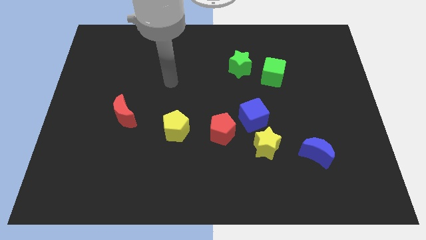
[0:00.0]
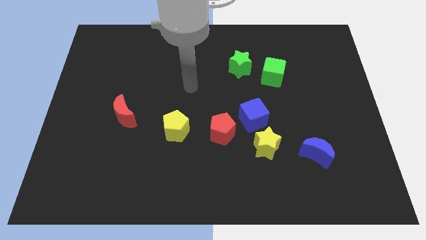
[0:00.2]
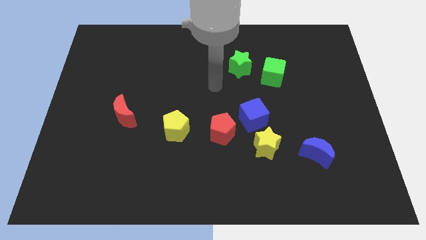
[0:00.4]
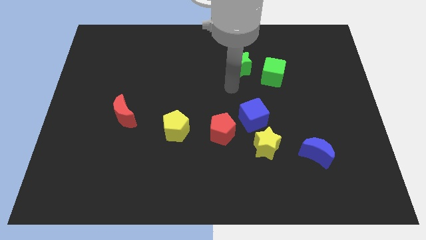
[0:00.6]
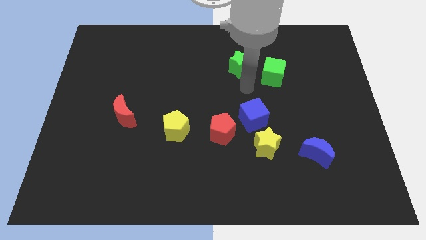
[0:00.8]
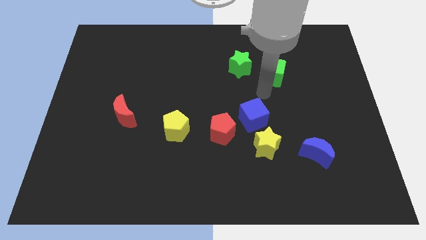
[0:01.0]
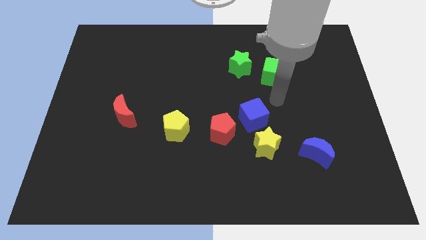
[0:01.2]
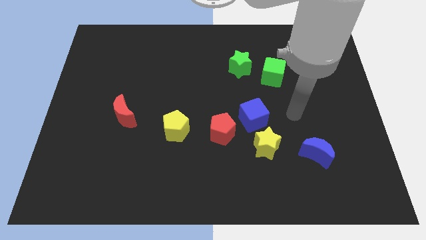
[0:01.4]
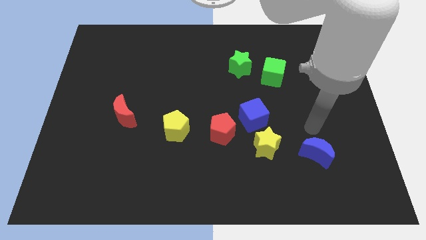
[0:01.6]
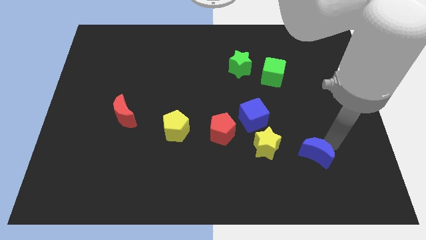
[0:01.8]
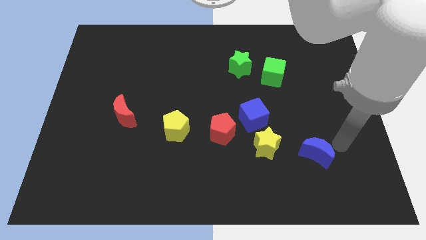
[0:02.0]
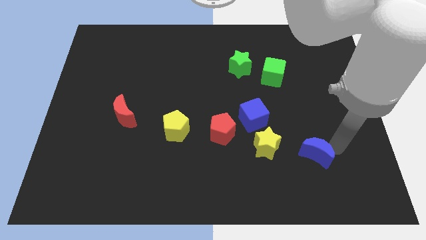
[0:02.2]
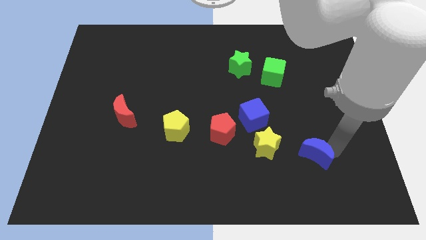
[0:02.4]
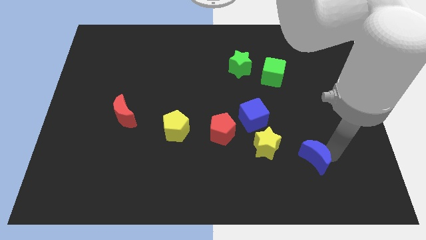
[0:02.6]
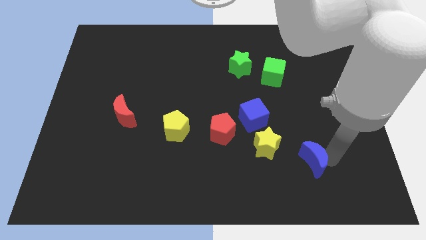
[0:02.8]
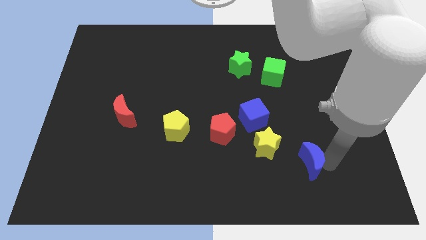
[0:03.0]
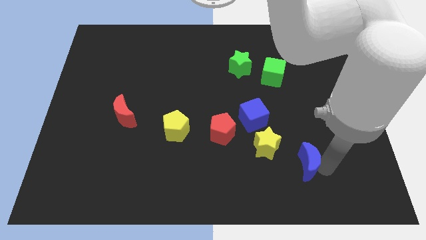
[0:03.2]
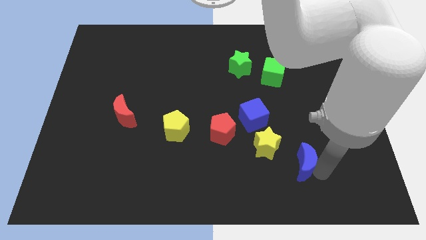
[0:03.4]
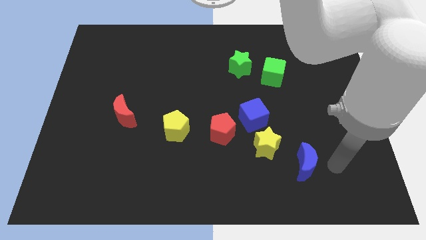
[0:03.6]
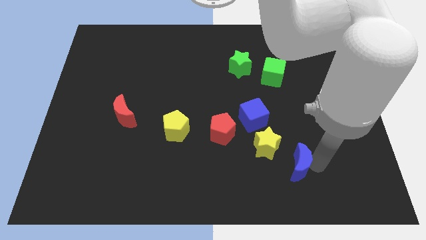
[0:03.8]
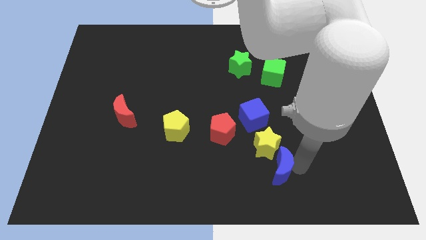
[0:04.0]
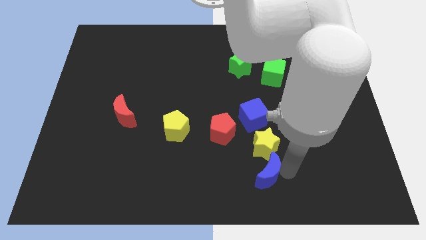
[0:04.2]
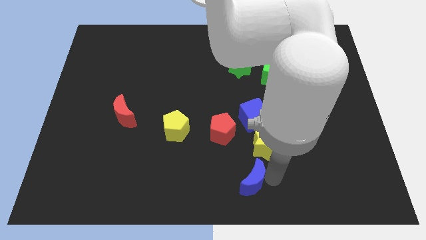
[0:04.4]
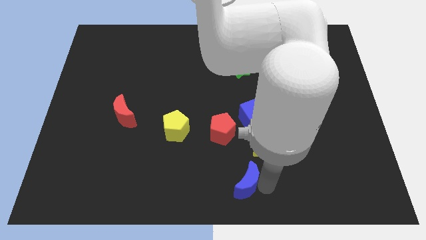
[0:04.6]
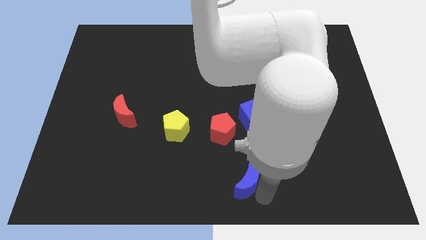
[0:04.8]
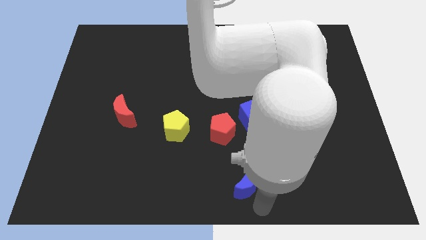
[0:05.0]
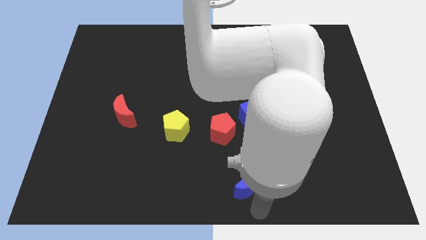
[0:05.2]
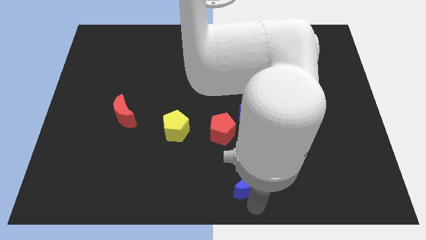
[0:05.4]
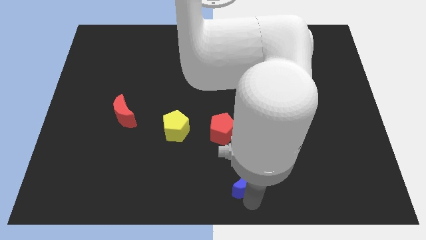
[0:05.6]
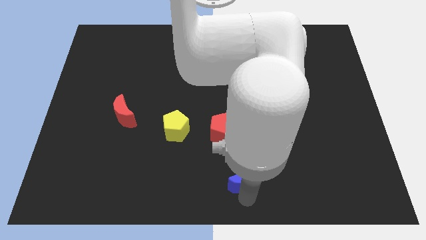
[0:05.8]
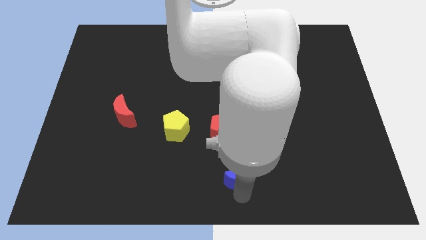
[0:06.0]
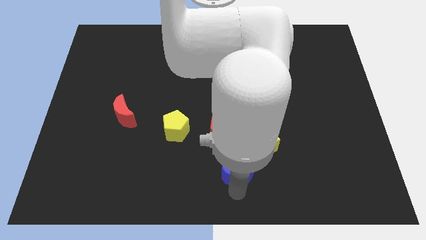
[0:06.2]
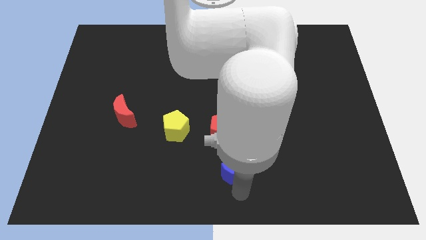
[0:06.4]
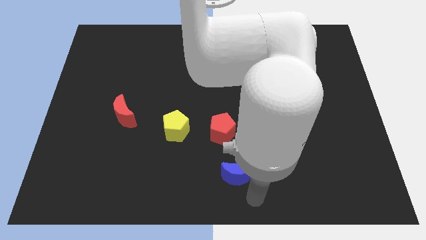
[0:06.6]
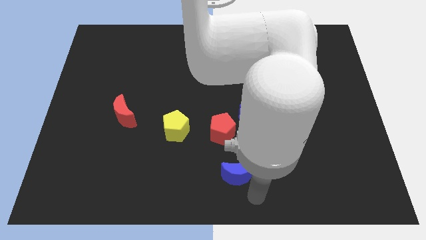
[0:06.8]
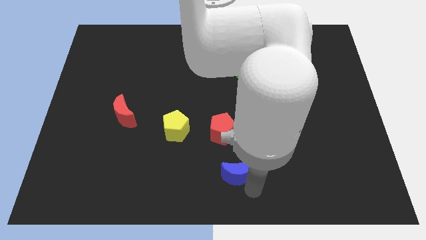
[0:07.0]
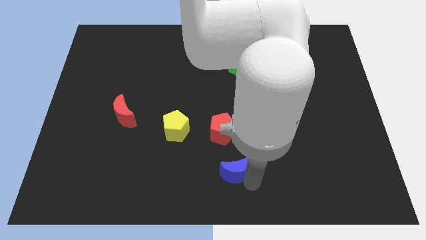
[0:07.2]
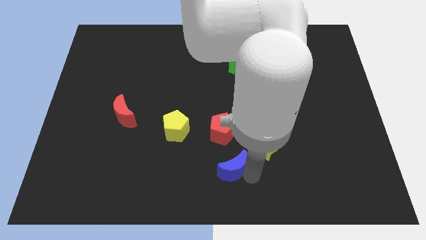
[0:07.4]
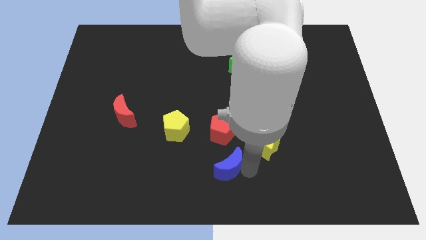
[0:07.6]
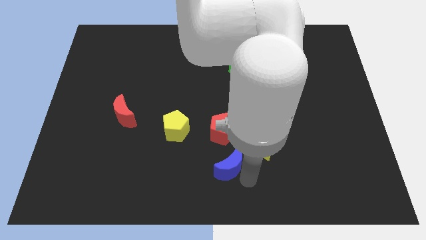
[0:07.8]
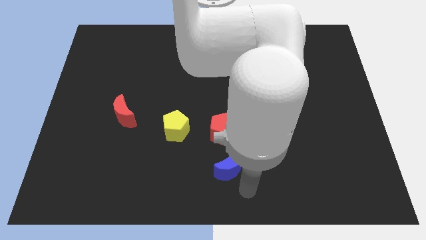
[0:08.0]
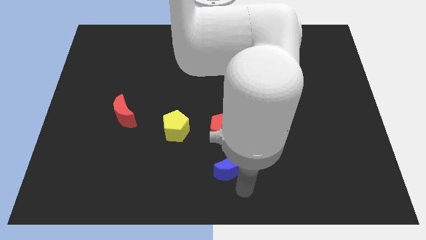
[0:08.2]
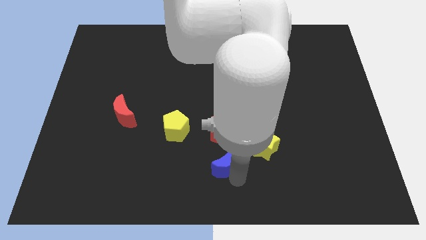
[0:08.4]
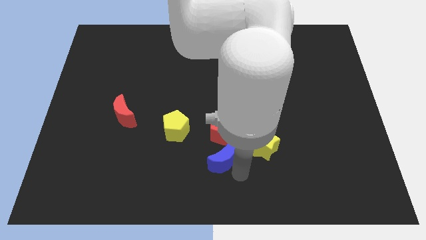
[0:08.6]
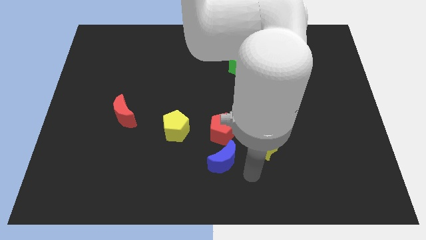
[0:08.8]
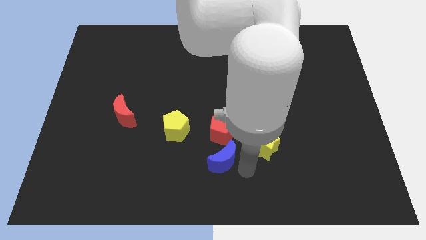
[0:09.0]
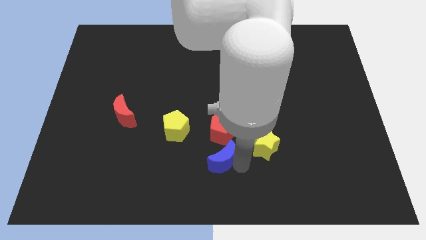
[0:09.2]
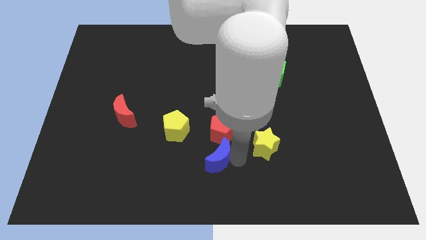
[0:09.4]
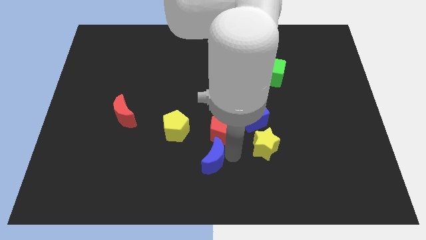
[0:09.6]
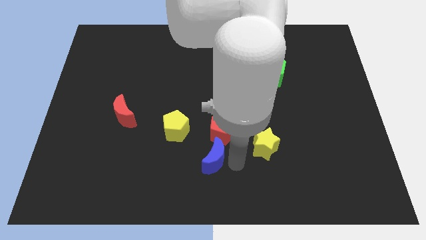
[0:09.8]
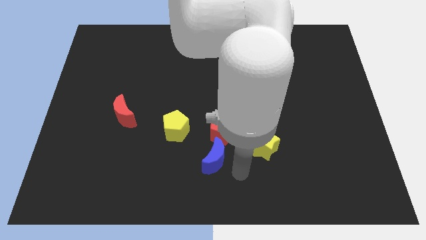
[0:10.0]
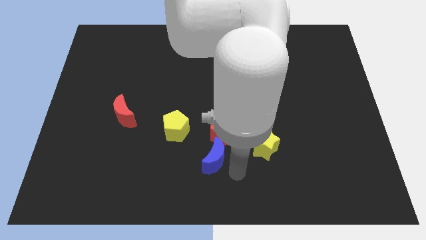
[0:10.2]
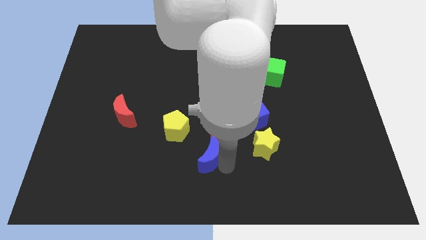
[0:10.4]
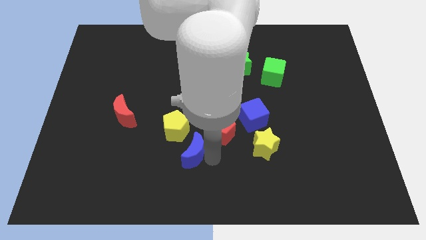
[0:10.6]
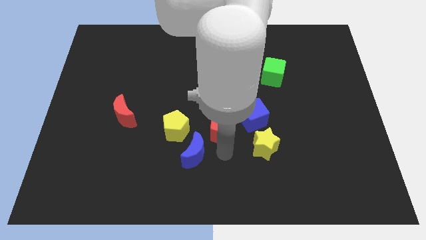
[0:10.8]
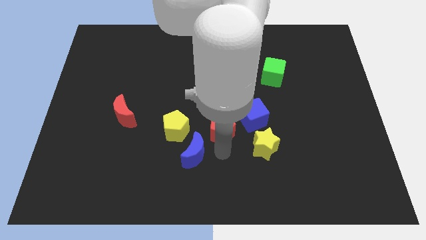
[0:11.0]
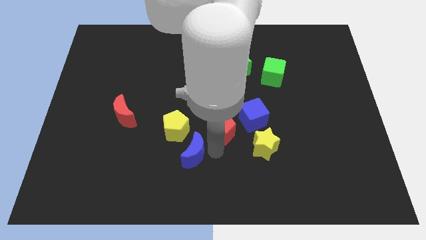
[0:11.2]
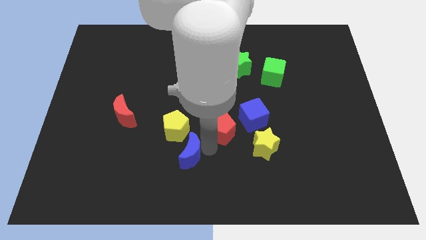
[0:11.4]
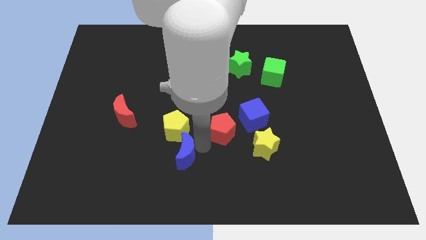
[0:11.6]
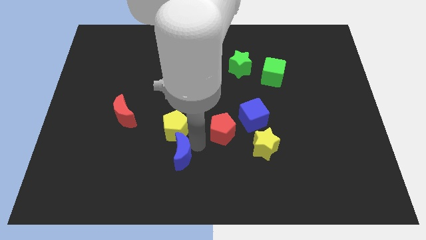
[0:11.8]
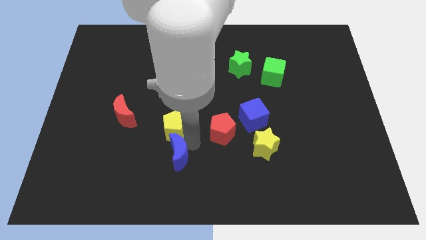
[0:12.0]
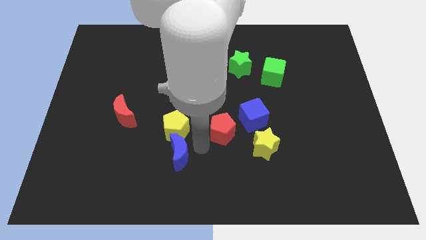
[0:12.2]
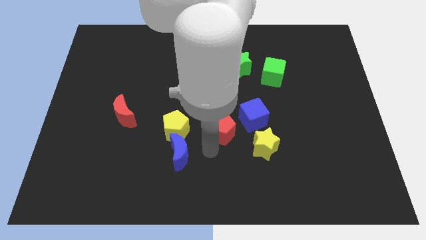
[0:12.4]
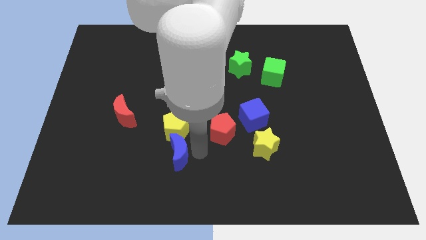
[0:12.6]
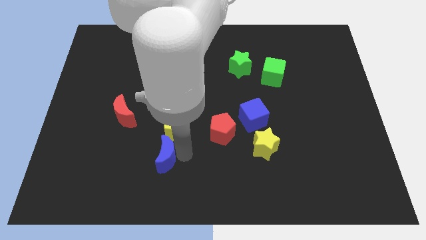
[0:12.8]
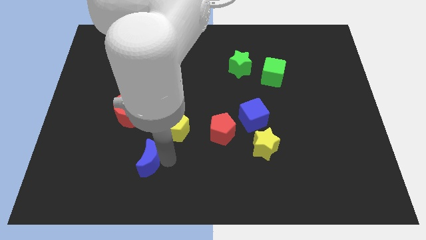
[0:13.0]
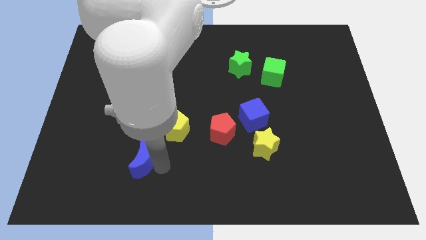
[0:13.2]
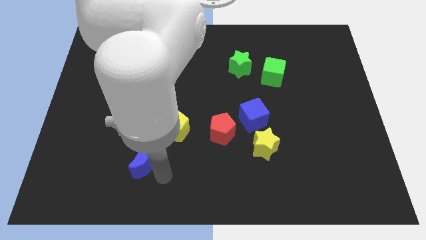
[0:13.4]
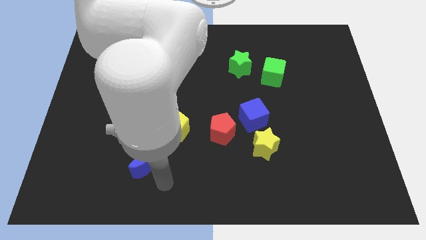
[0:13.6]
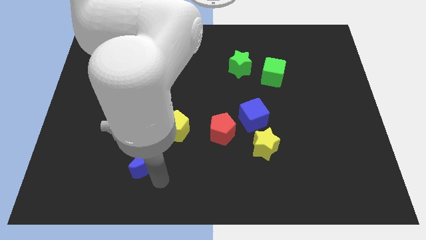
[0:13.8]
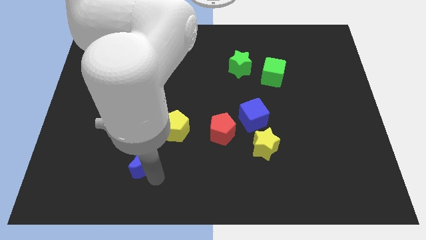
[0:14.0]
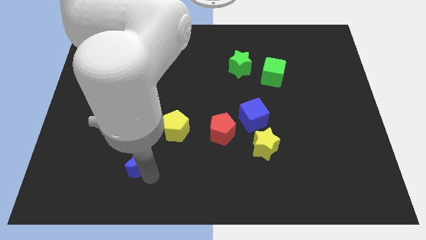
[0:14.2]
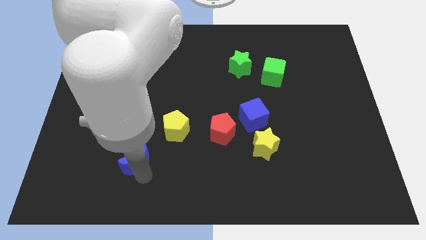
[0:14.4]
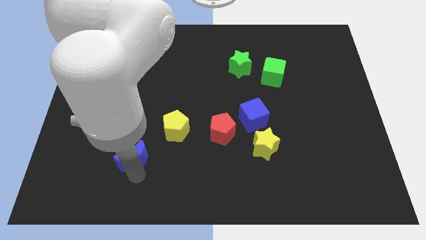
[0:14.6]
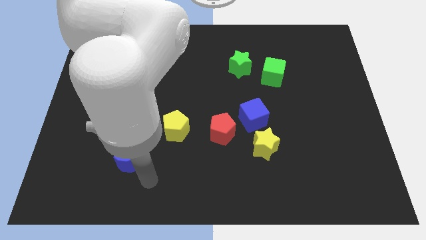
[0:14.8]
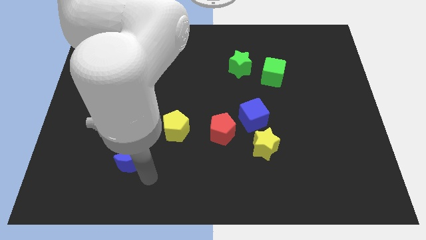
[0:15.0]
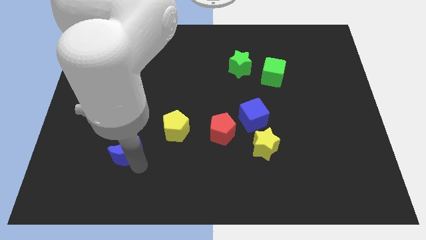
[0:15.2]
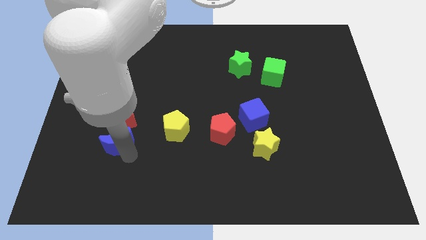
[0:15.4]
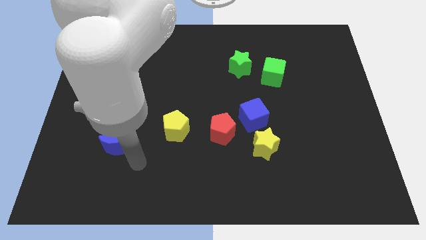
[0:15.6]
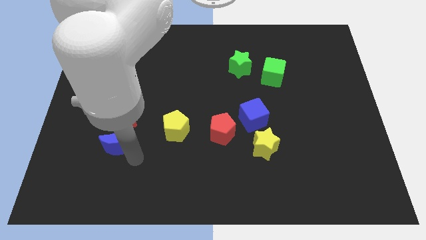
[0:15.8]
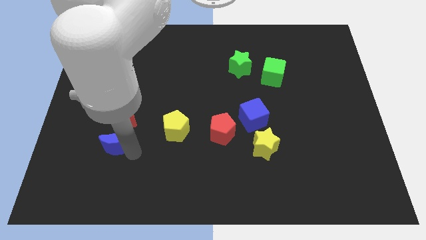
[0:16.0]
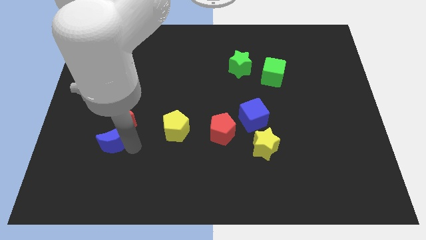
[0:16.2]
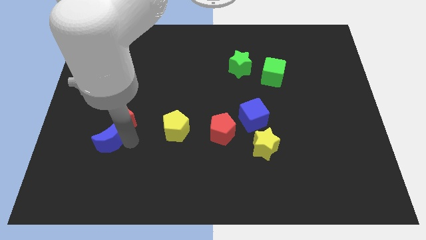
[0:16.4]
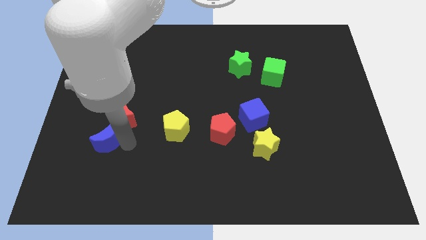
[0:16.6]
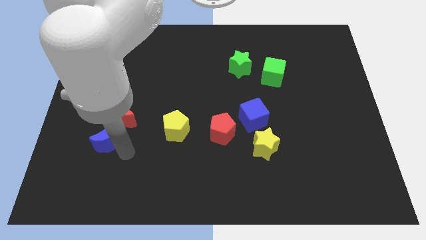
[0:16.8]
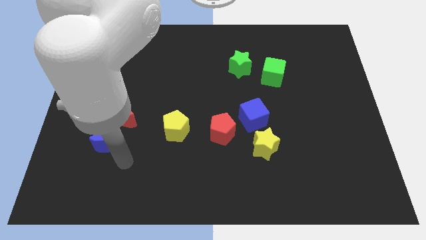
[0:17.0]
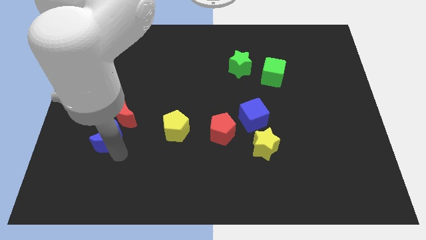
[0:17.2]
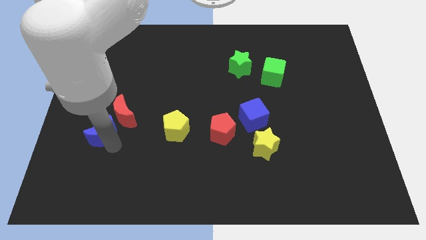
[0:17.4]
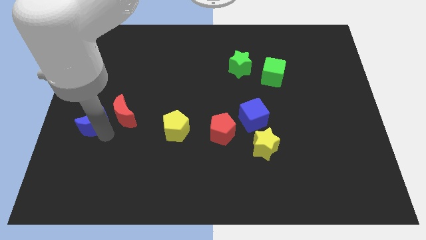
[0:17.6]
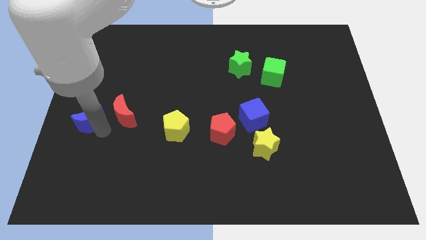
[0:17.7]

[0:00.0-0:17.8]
push the blue moon to the center left
